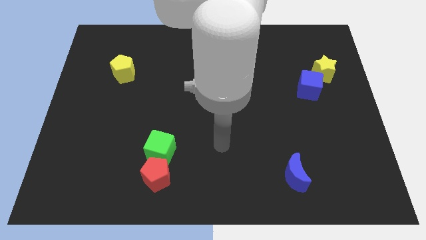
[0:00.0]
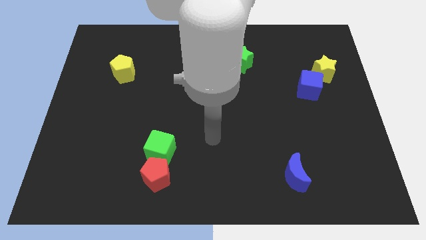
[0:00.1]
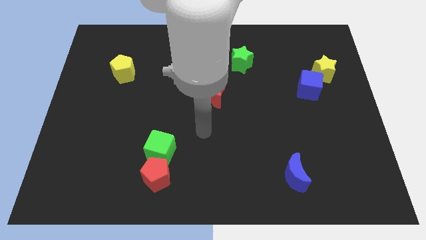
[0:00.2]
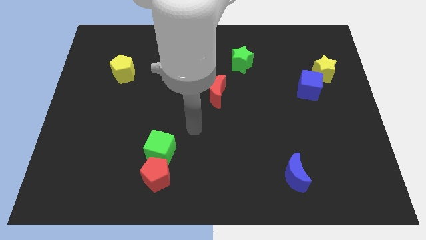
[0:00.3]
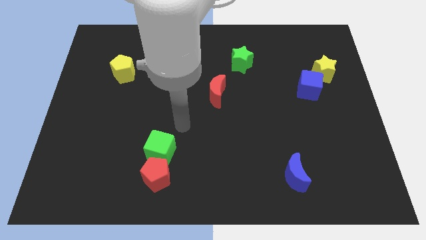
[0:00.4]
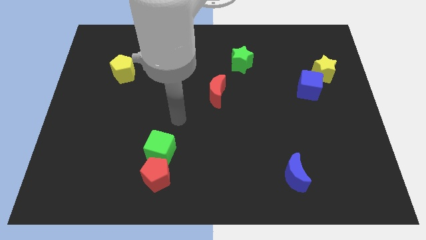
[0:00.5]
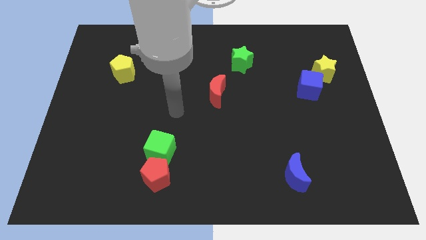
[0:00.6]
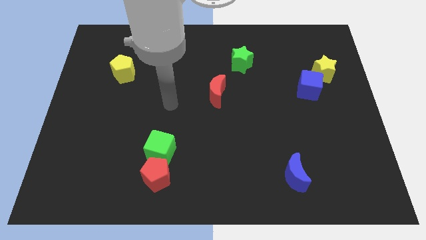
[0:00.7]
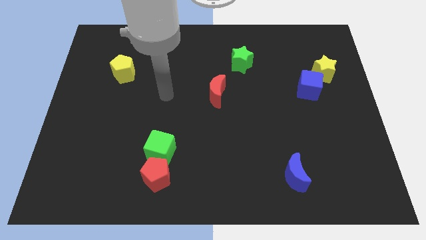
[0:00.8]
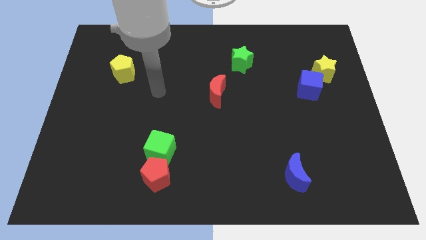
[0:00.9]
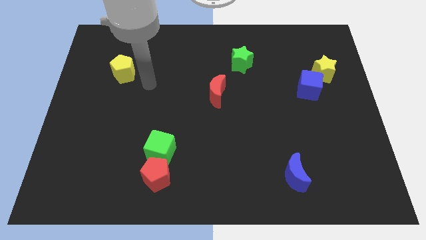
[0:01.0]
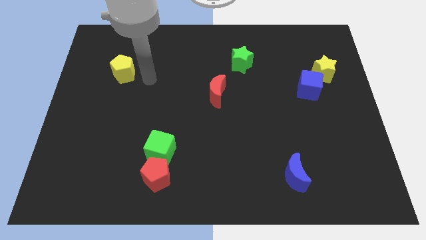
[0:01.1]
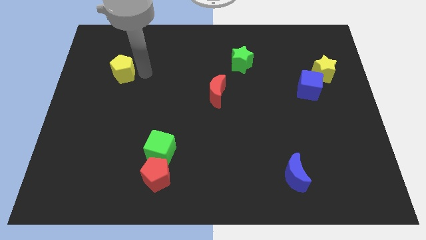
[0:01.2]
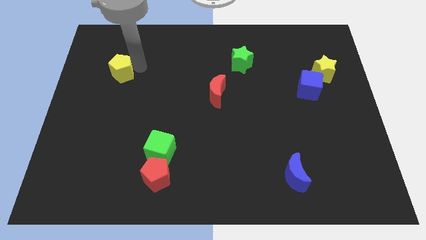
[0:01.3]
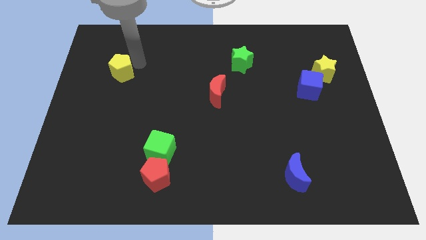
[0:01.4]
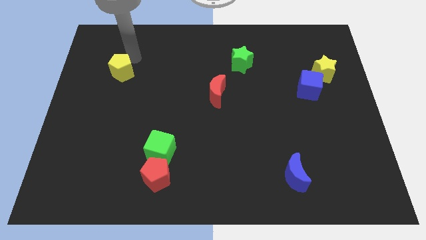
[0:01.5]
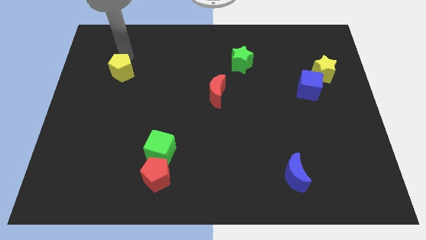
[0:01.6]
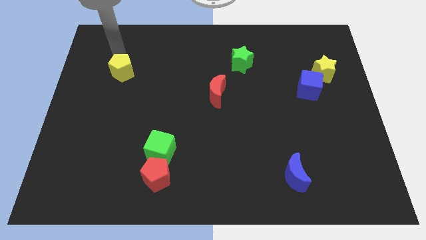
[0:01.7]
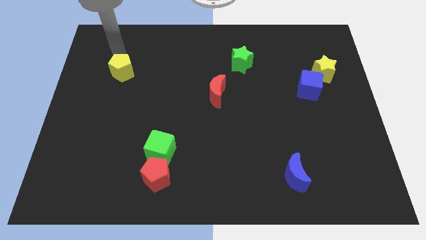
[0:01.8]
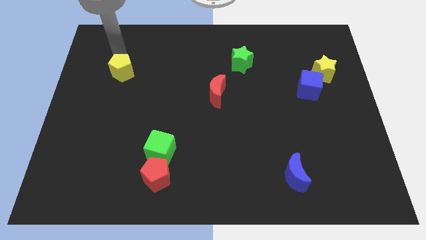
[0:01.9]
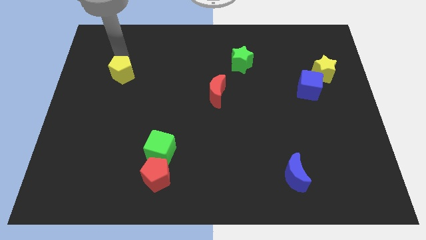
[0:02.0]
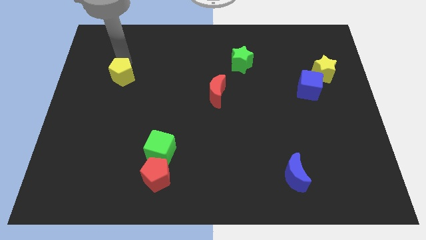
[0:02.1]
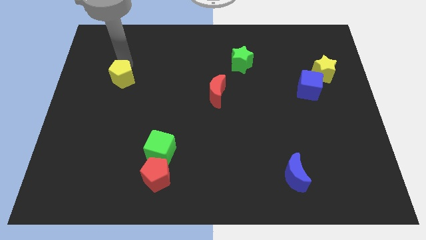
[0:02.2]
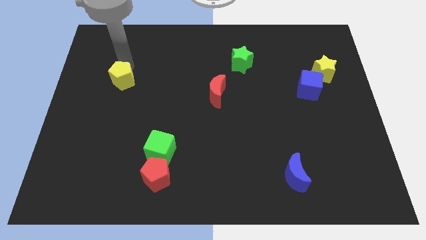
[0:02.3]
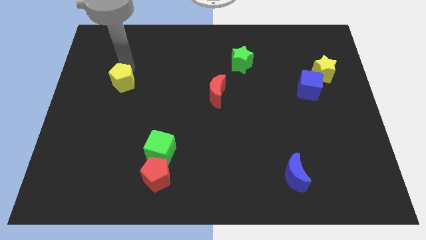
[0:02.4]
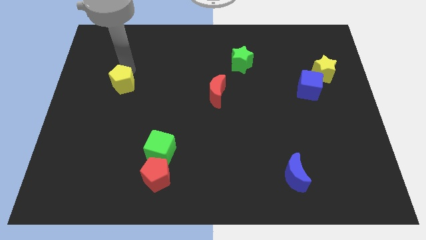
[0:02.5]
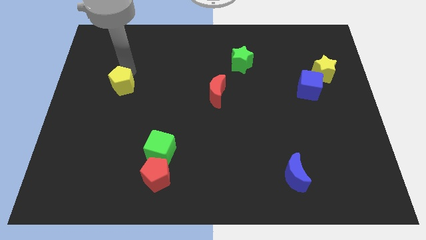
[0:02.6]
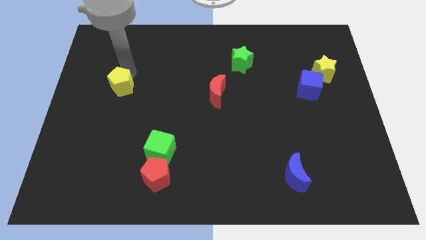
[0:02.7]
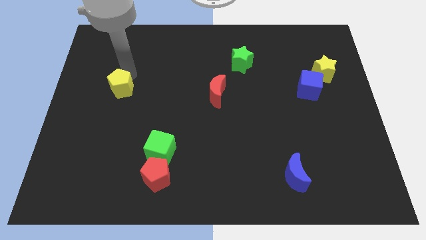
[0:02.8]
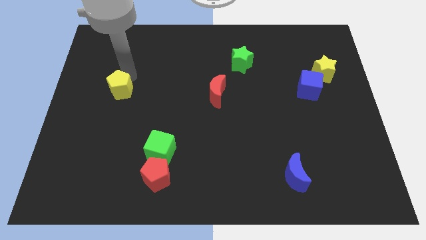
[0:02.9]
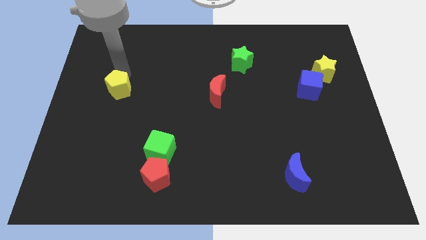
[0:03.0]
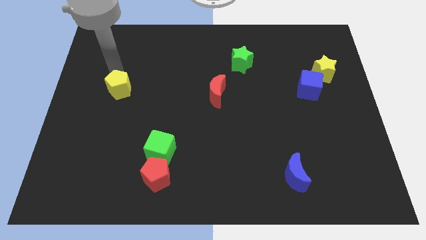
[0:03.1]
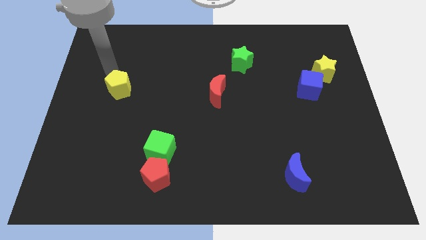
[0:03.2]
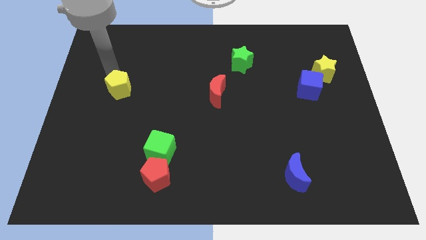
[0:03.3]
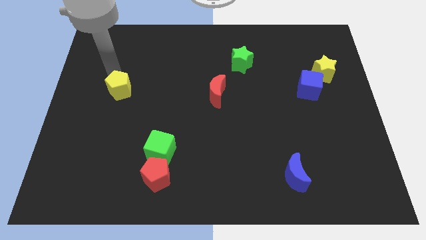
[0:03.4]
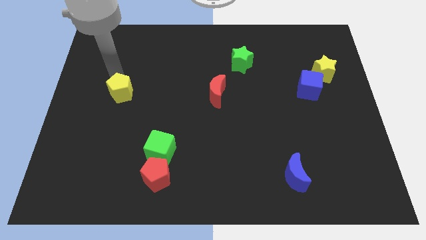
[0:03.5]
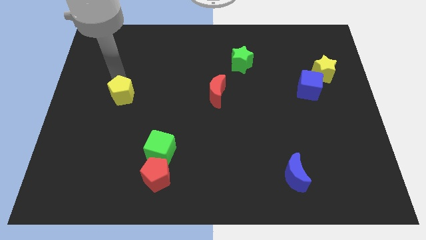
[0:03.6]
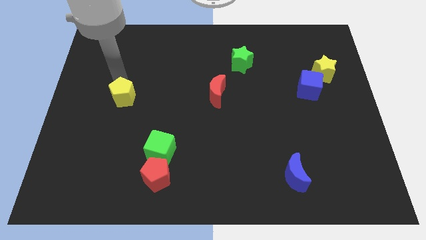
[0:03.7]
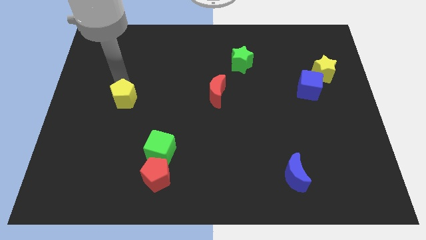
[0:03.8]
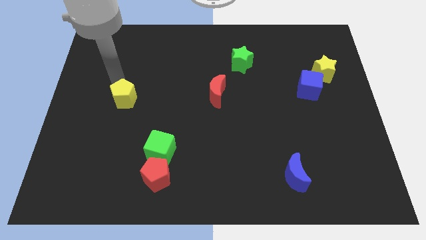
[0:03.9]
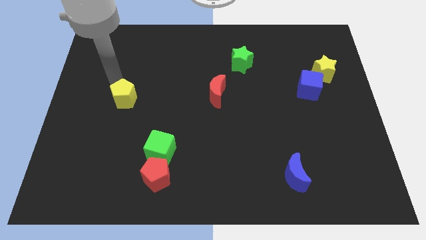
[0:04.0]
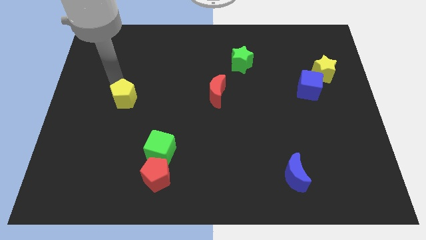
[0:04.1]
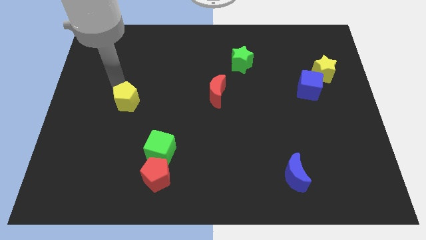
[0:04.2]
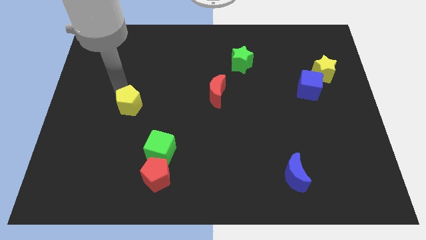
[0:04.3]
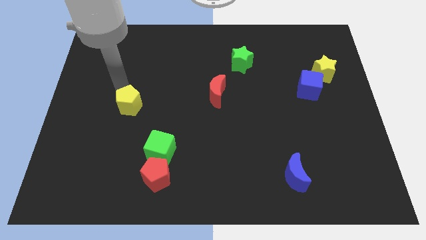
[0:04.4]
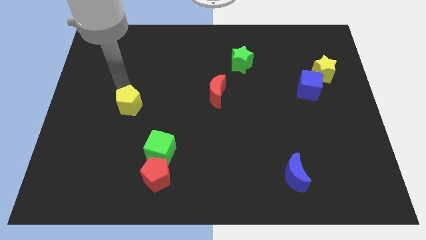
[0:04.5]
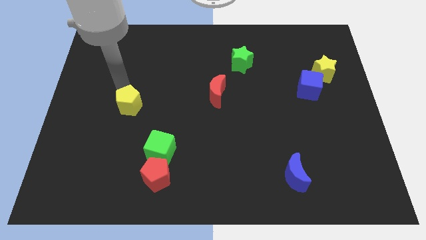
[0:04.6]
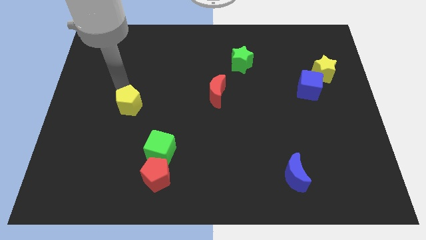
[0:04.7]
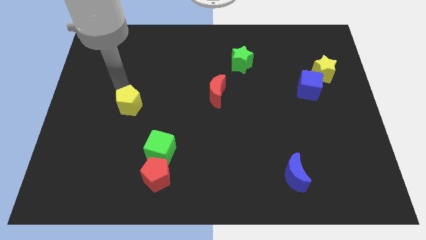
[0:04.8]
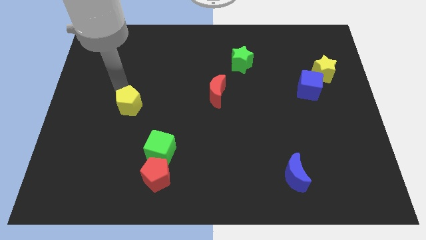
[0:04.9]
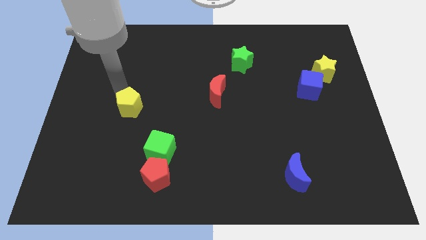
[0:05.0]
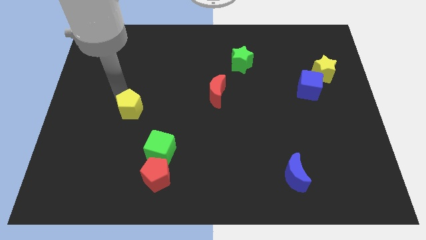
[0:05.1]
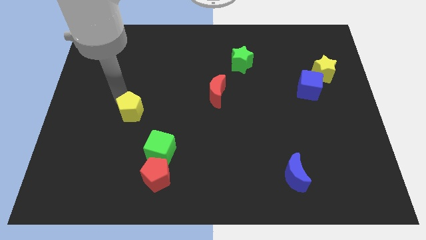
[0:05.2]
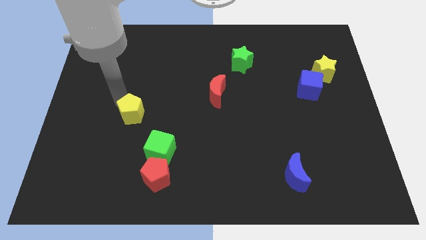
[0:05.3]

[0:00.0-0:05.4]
slide the yellow pentagon to the top left of the green cube

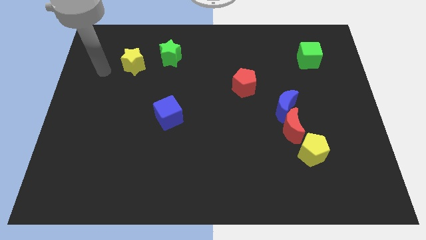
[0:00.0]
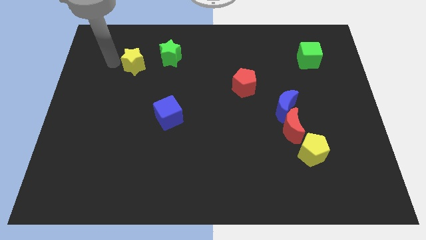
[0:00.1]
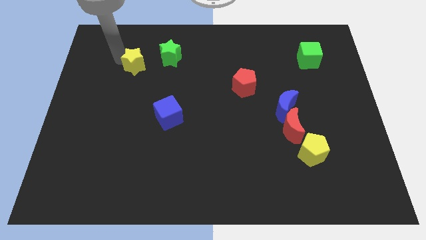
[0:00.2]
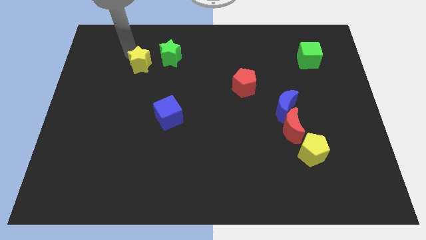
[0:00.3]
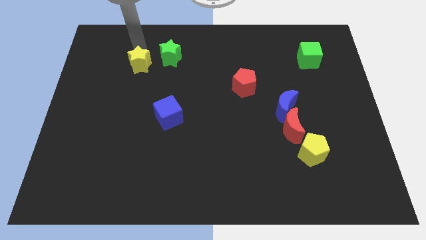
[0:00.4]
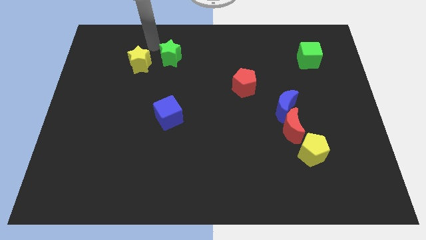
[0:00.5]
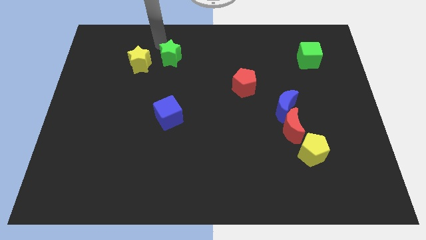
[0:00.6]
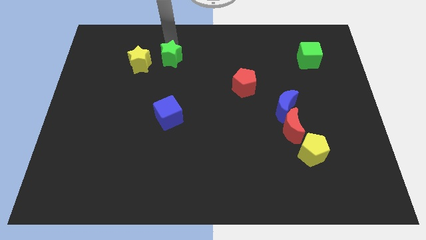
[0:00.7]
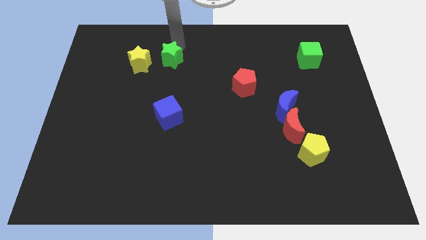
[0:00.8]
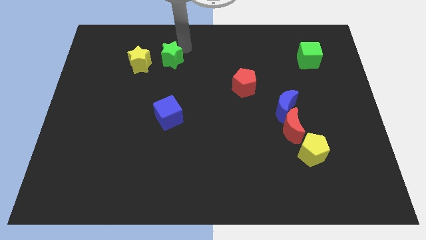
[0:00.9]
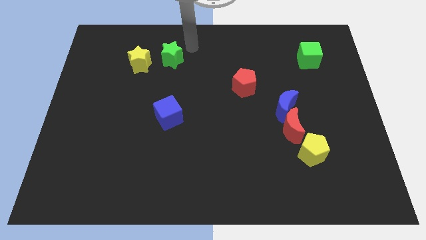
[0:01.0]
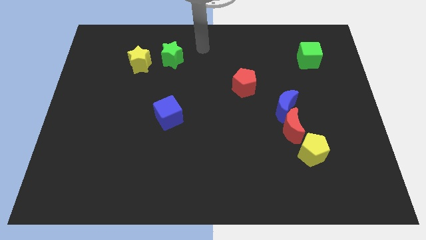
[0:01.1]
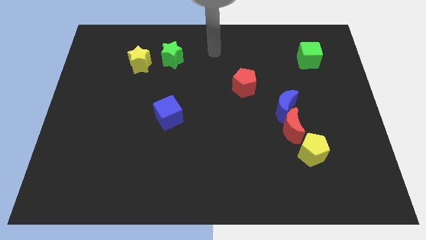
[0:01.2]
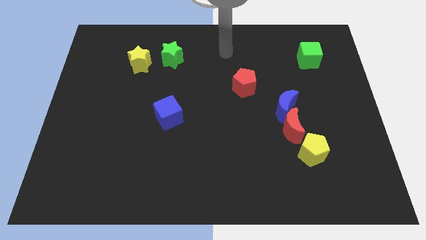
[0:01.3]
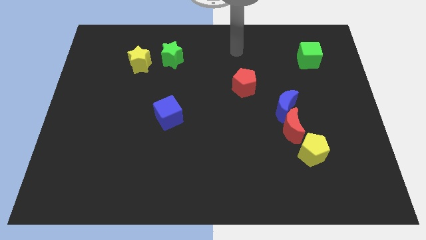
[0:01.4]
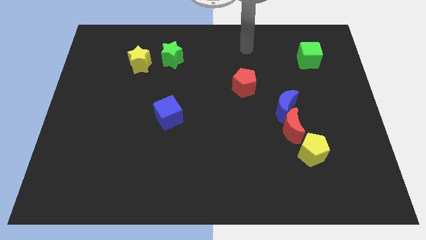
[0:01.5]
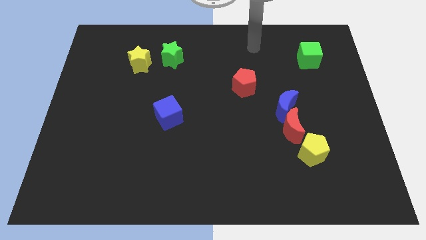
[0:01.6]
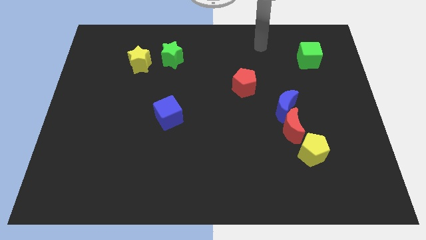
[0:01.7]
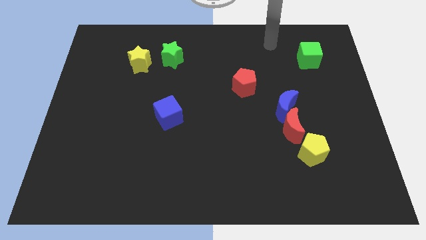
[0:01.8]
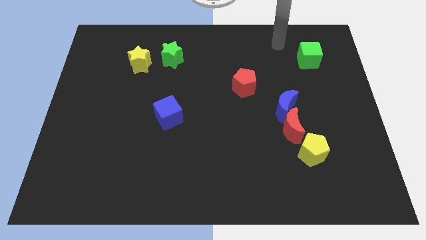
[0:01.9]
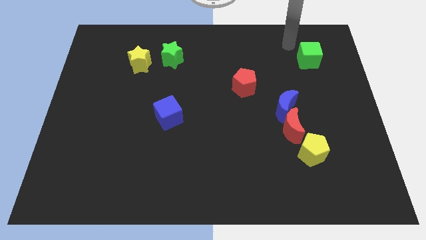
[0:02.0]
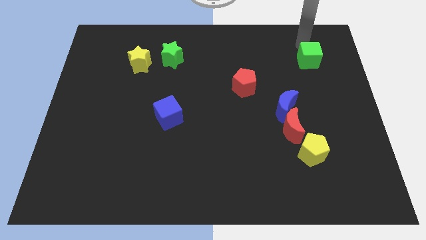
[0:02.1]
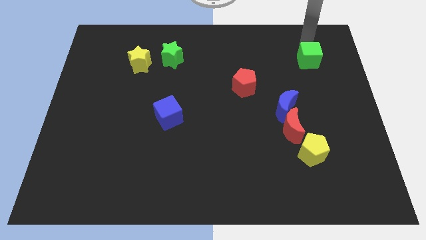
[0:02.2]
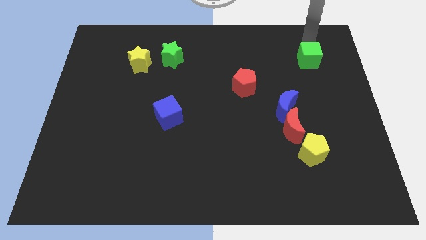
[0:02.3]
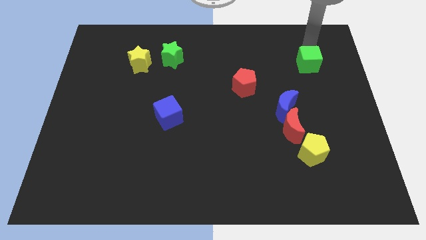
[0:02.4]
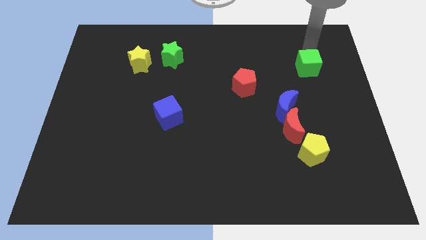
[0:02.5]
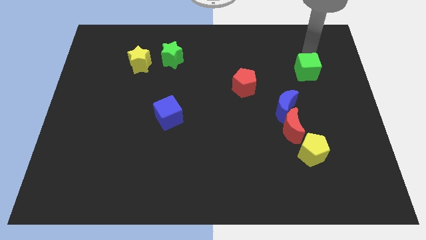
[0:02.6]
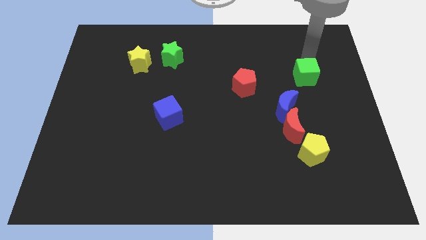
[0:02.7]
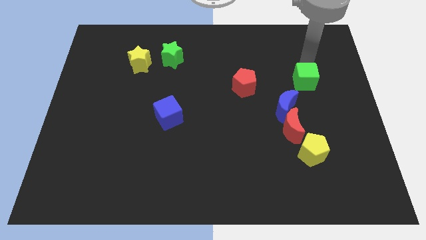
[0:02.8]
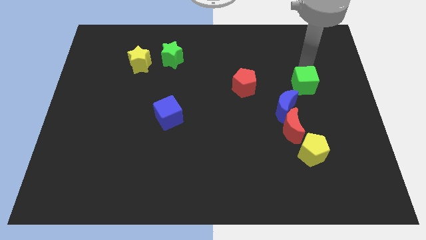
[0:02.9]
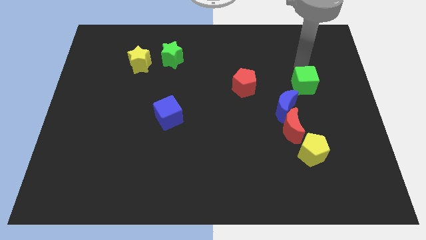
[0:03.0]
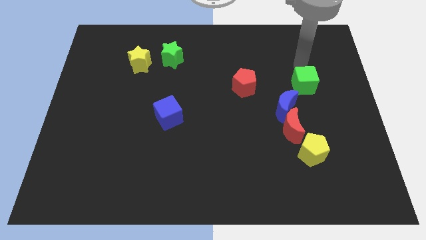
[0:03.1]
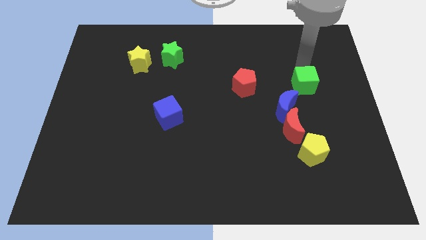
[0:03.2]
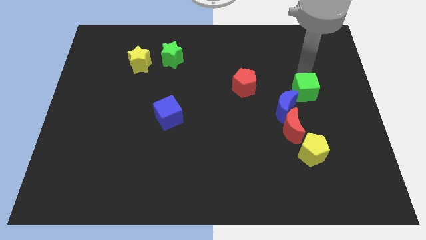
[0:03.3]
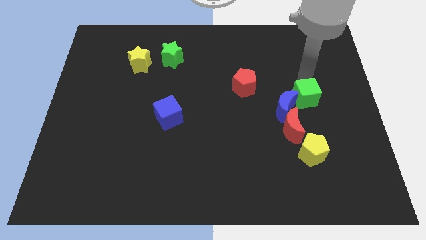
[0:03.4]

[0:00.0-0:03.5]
move the green cube to the top right side of the red moon
